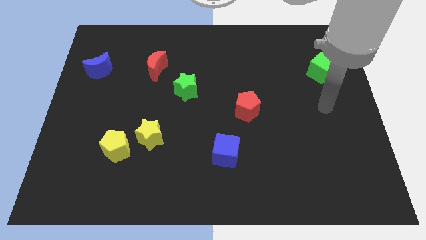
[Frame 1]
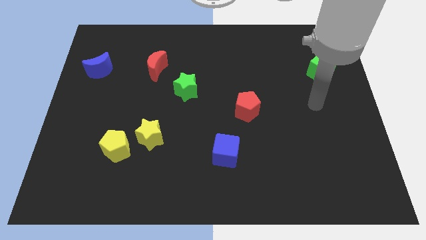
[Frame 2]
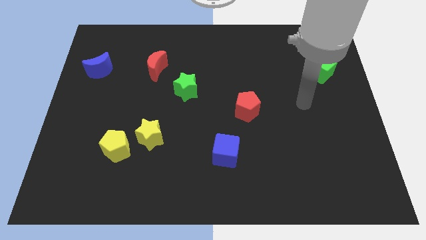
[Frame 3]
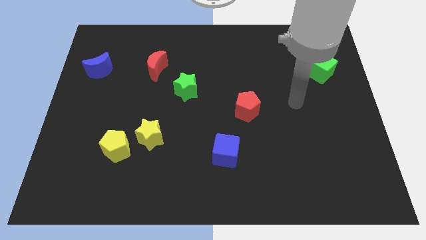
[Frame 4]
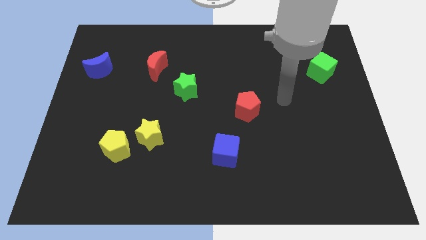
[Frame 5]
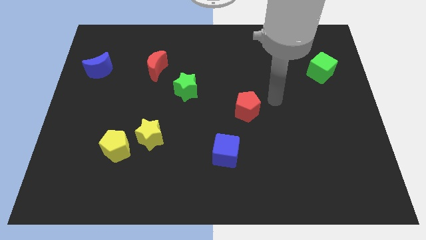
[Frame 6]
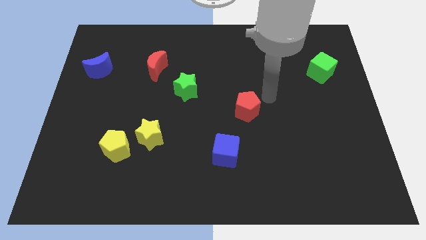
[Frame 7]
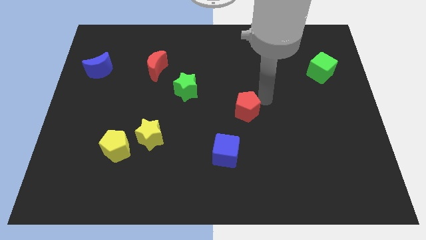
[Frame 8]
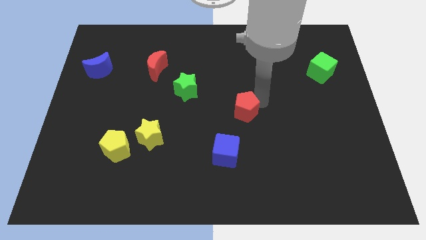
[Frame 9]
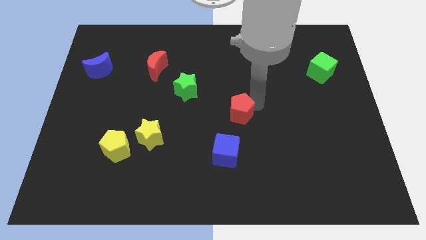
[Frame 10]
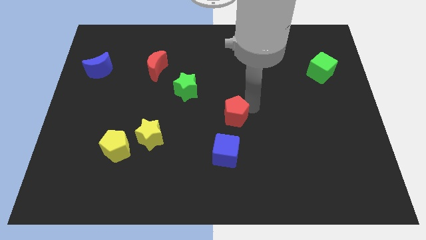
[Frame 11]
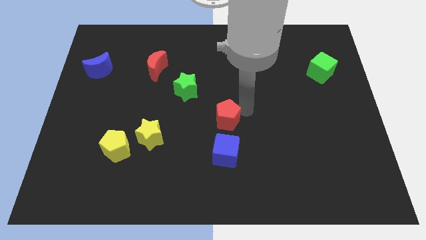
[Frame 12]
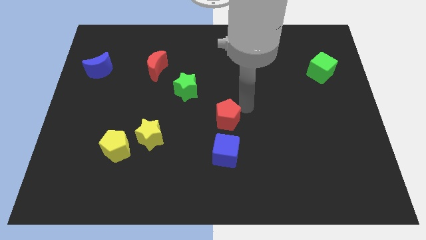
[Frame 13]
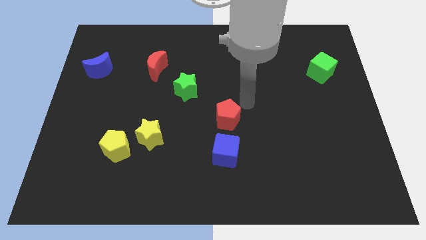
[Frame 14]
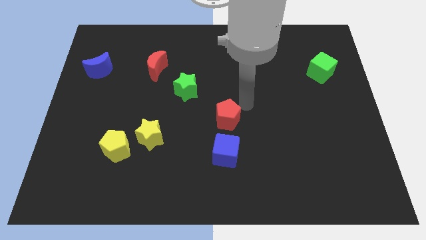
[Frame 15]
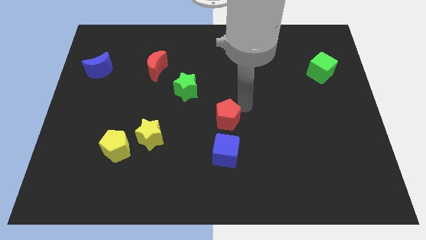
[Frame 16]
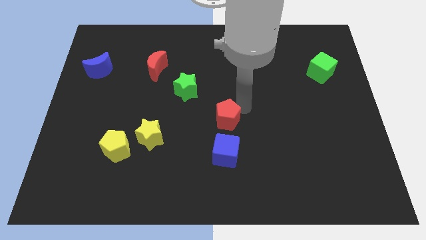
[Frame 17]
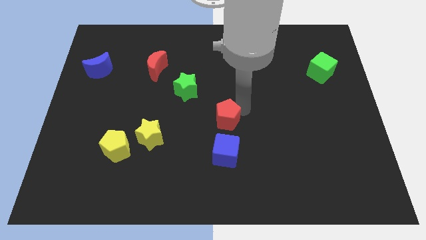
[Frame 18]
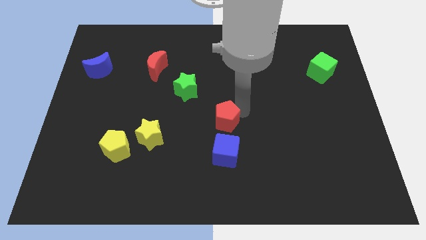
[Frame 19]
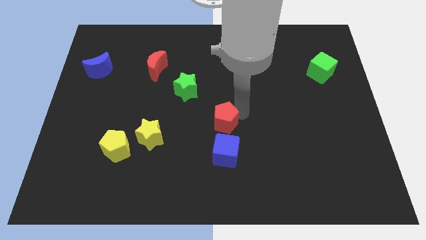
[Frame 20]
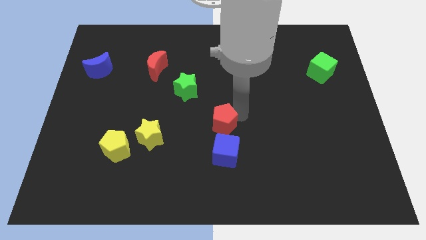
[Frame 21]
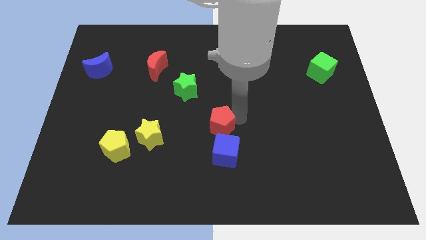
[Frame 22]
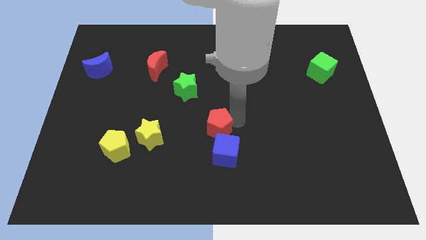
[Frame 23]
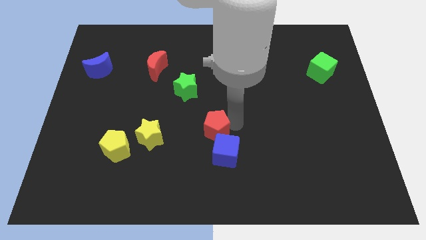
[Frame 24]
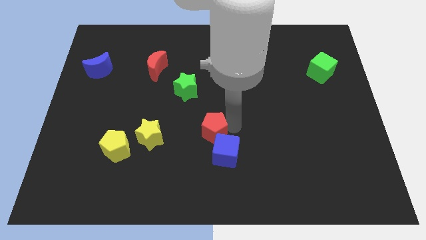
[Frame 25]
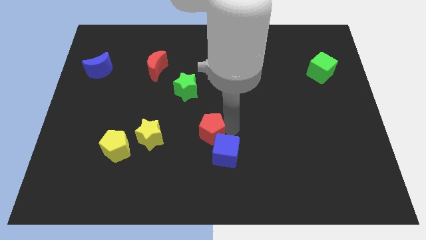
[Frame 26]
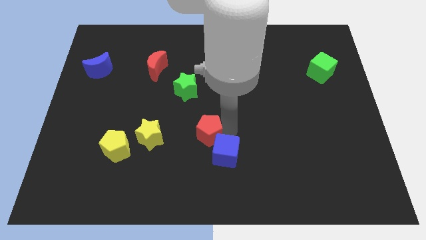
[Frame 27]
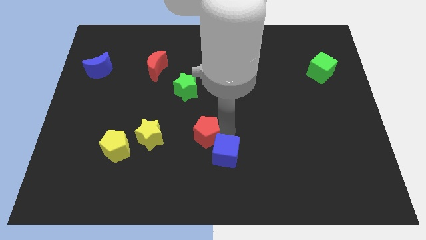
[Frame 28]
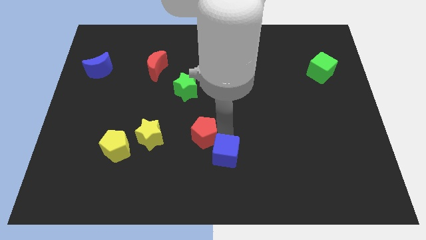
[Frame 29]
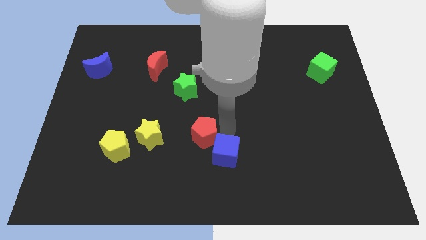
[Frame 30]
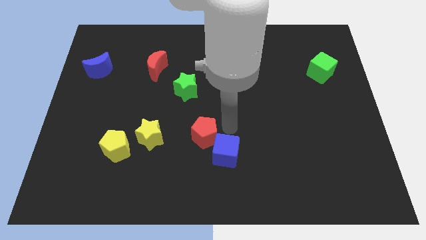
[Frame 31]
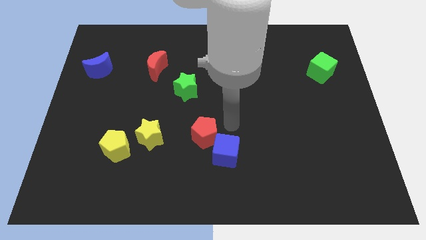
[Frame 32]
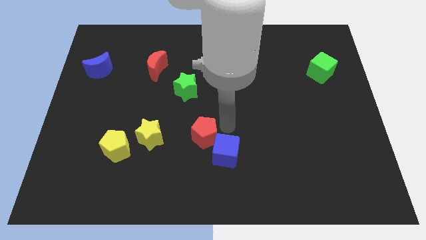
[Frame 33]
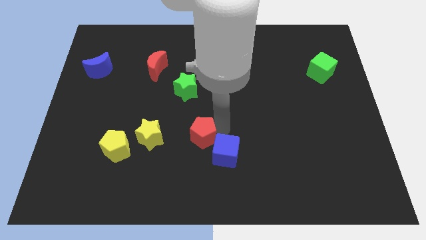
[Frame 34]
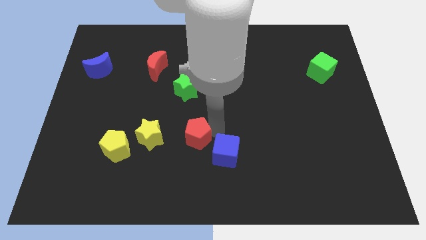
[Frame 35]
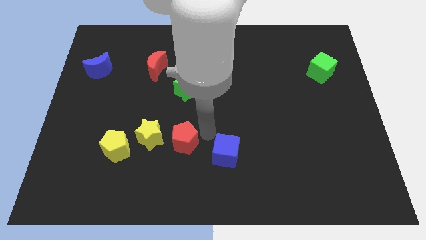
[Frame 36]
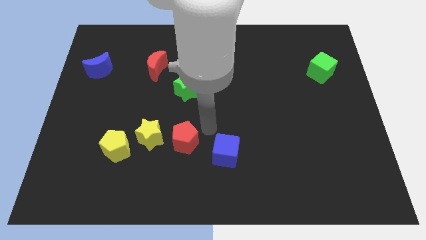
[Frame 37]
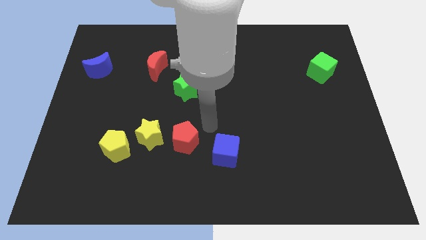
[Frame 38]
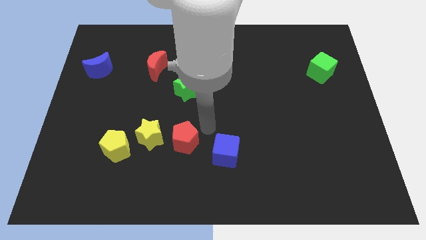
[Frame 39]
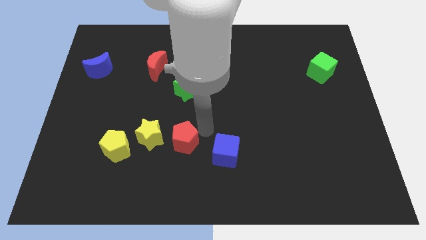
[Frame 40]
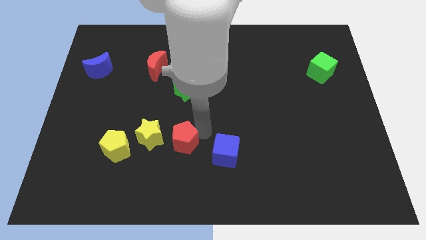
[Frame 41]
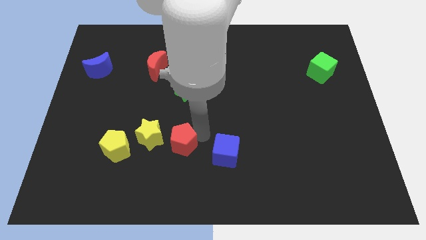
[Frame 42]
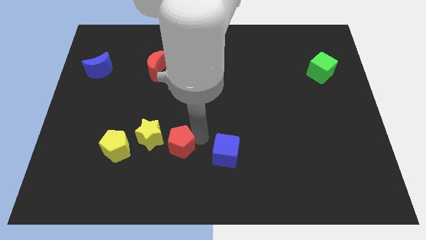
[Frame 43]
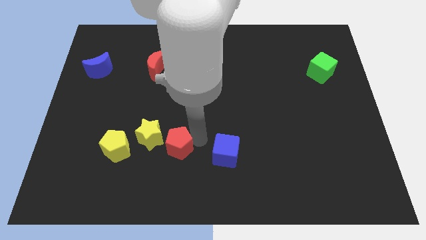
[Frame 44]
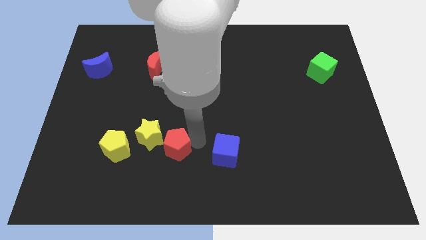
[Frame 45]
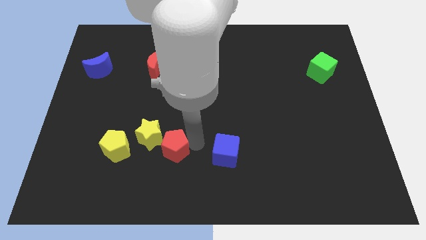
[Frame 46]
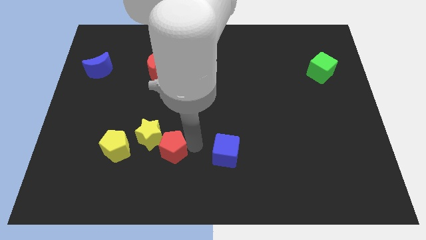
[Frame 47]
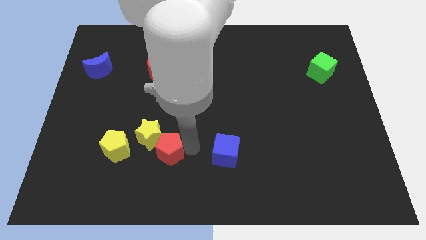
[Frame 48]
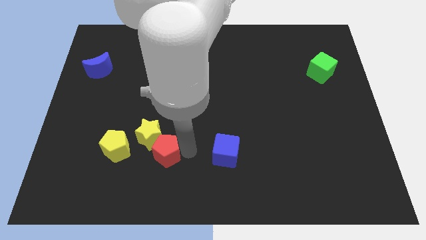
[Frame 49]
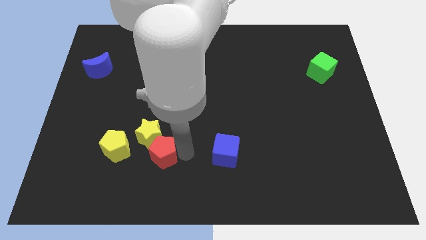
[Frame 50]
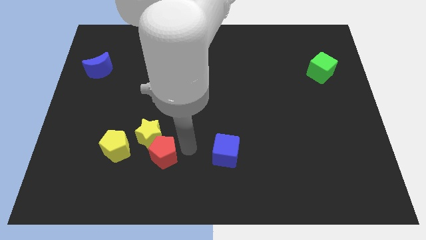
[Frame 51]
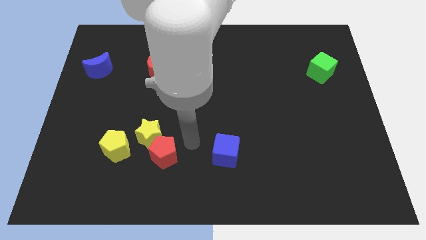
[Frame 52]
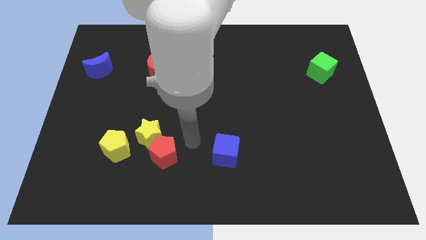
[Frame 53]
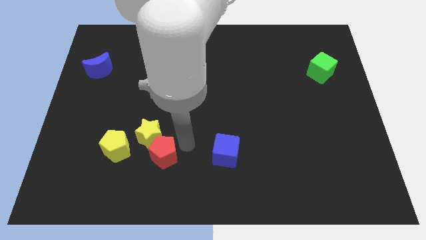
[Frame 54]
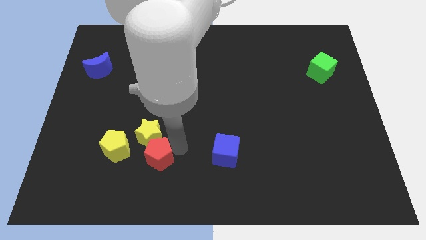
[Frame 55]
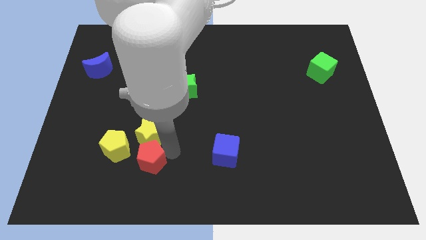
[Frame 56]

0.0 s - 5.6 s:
move the red pentagon to the bottom right side of the yellow pentagon

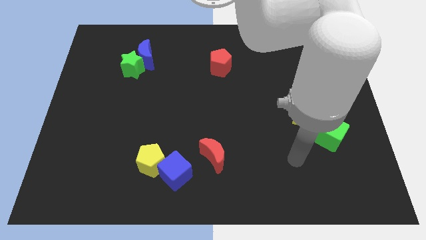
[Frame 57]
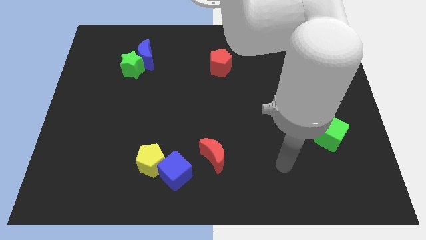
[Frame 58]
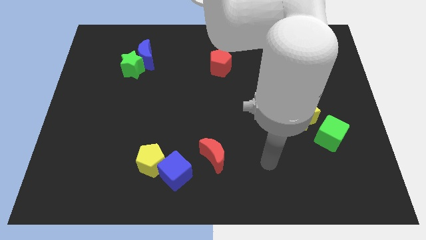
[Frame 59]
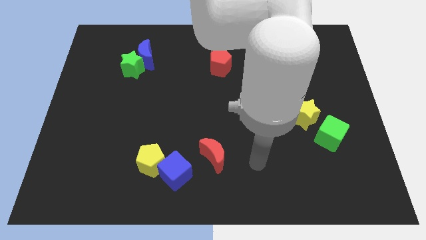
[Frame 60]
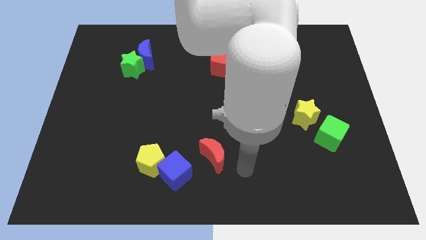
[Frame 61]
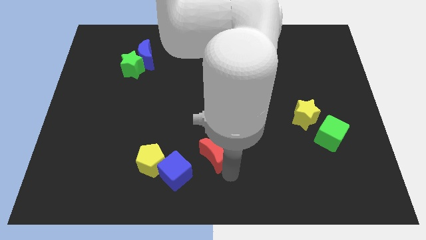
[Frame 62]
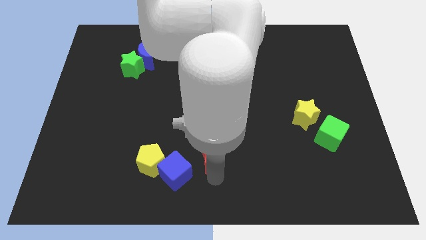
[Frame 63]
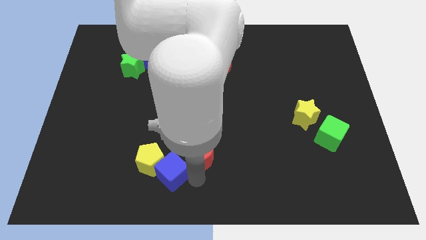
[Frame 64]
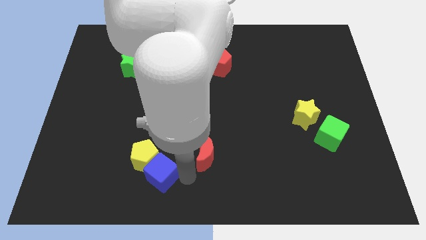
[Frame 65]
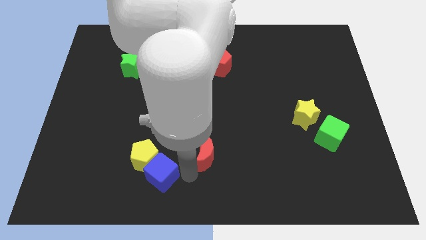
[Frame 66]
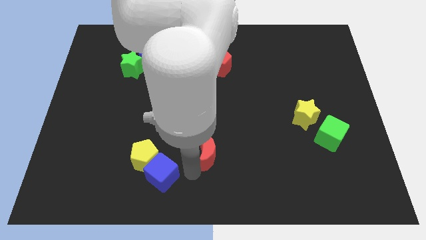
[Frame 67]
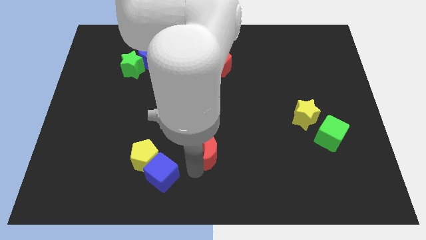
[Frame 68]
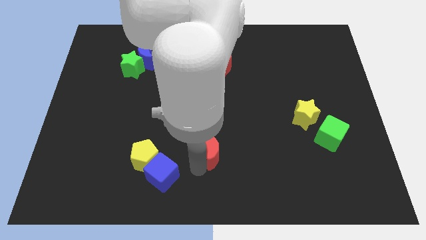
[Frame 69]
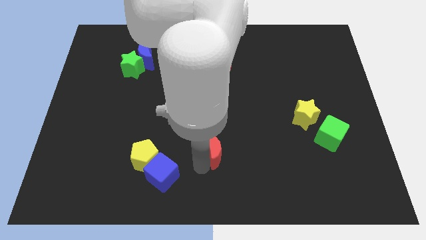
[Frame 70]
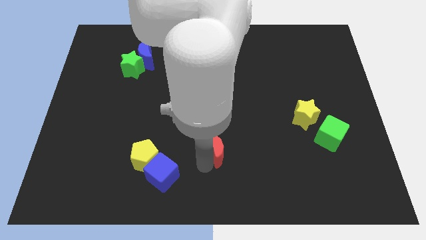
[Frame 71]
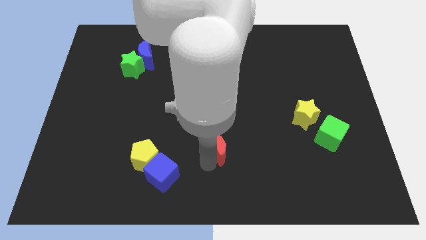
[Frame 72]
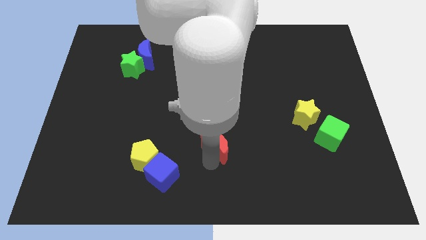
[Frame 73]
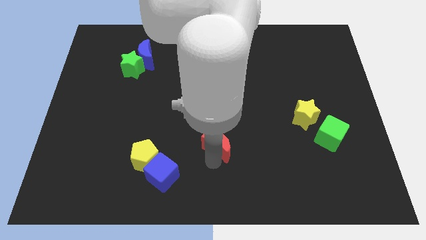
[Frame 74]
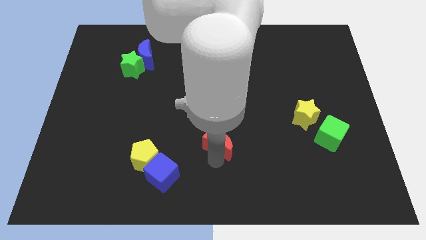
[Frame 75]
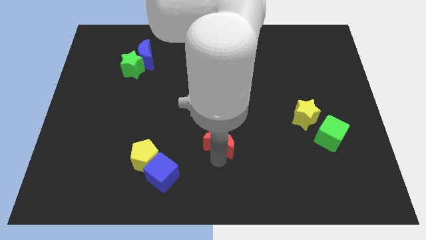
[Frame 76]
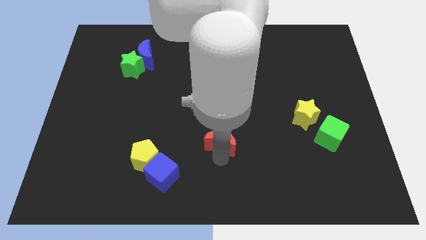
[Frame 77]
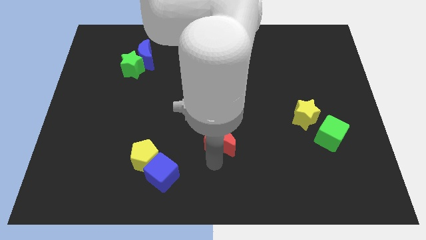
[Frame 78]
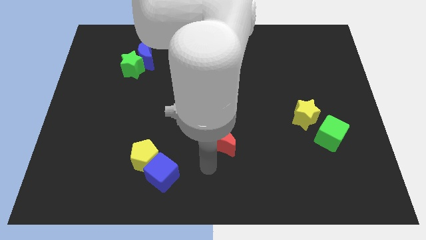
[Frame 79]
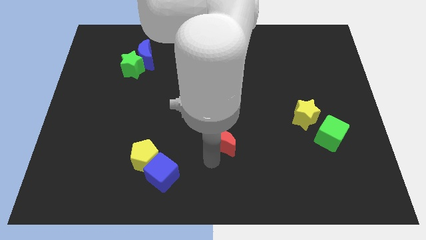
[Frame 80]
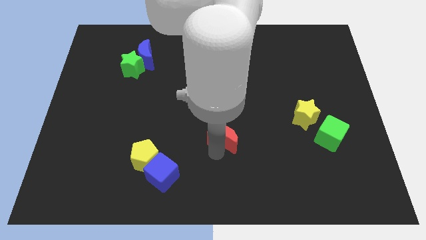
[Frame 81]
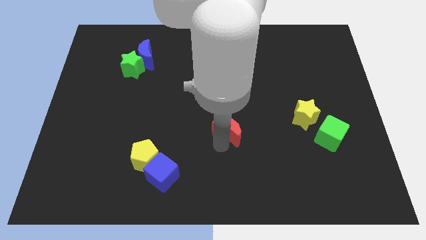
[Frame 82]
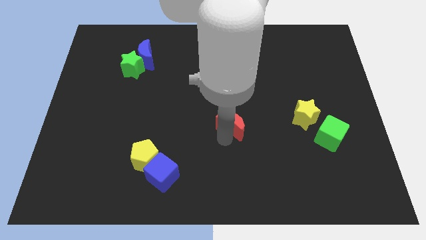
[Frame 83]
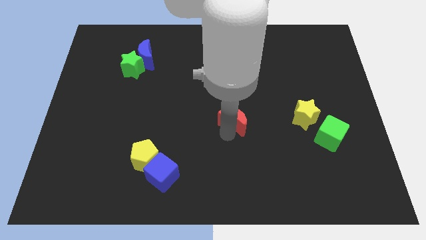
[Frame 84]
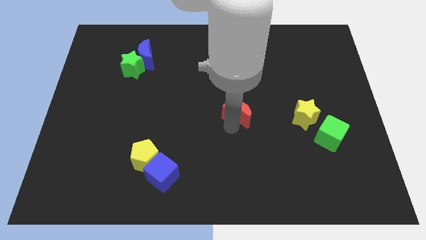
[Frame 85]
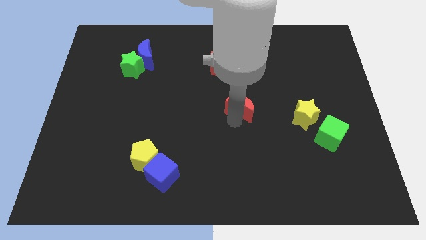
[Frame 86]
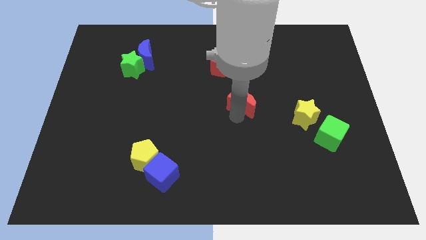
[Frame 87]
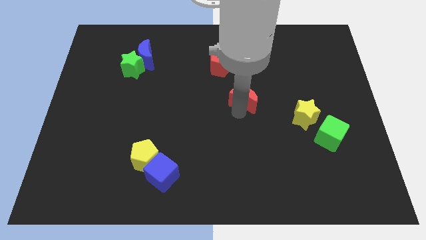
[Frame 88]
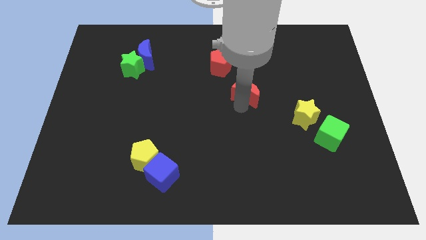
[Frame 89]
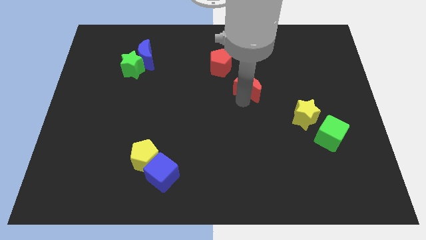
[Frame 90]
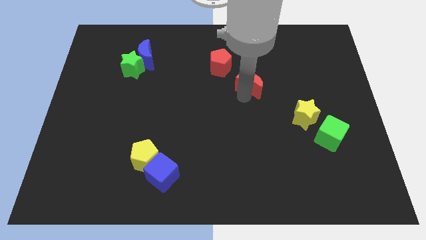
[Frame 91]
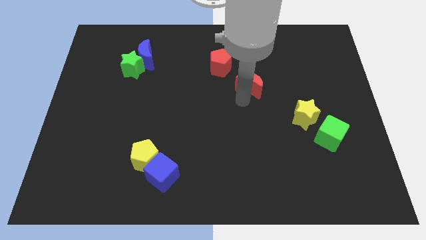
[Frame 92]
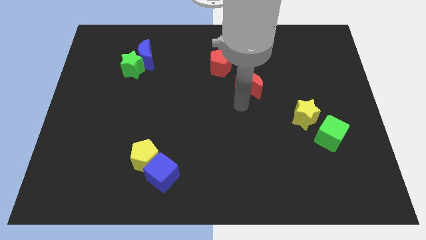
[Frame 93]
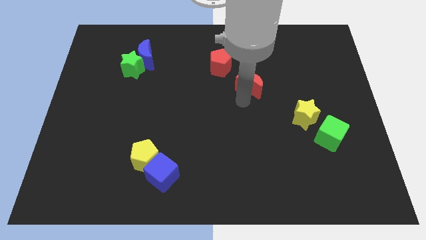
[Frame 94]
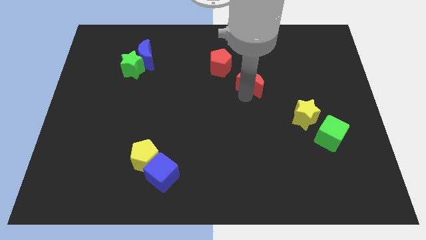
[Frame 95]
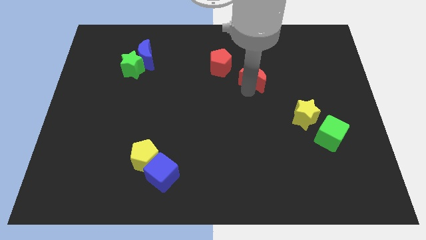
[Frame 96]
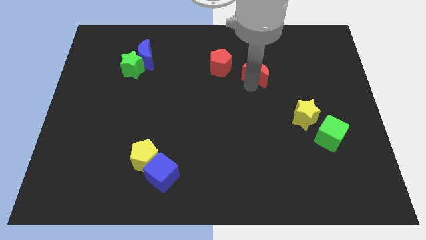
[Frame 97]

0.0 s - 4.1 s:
push the red moon to the right side of the red pentagon
